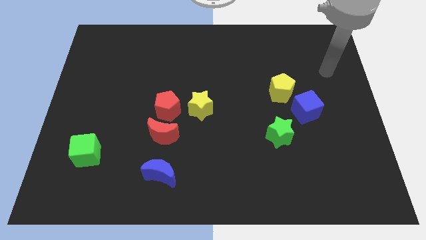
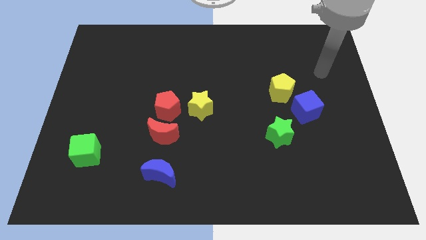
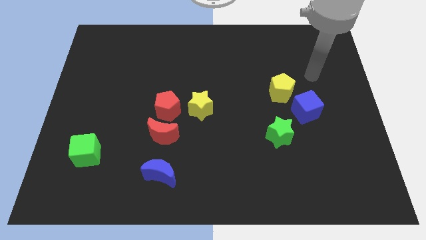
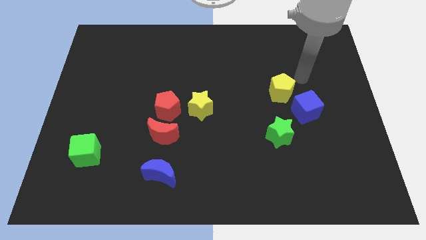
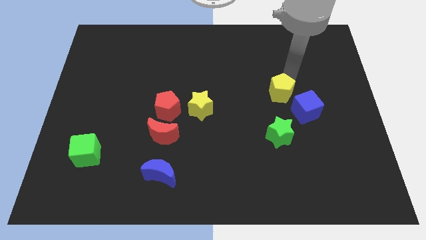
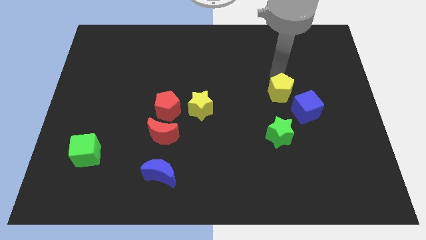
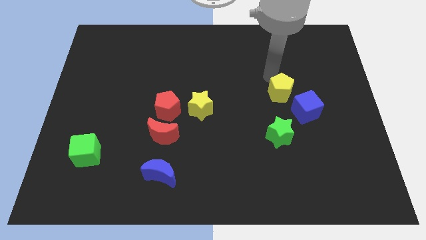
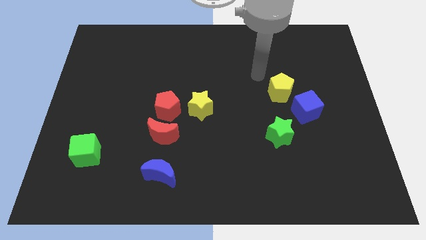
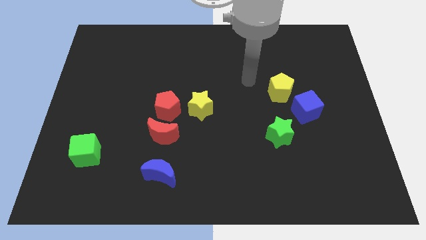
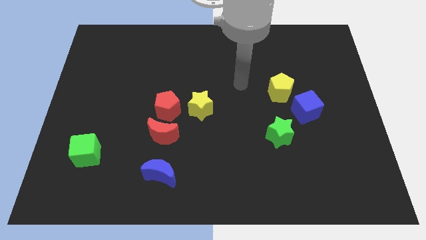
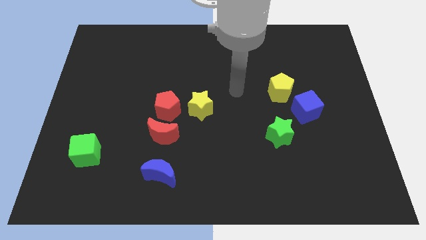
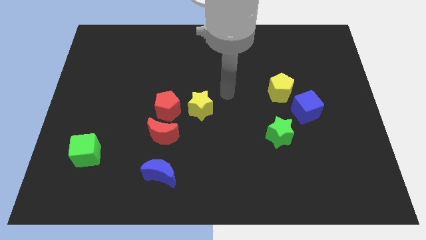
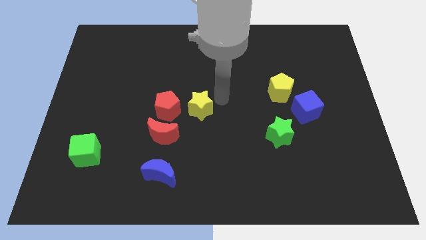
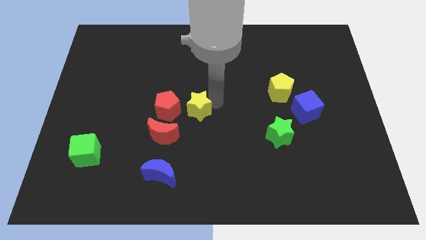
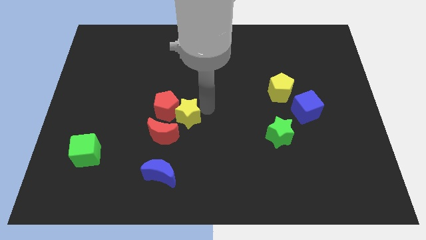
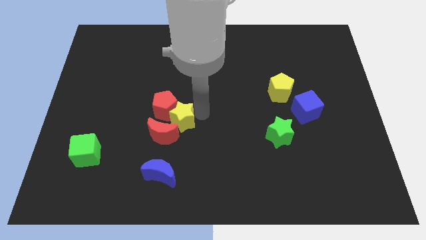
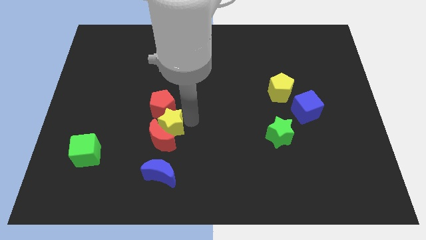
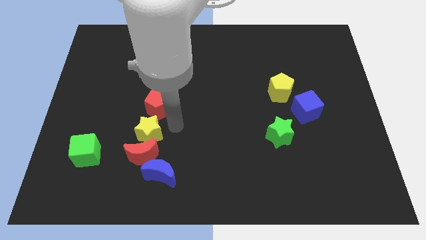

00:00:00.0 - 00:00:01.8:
move the red pentagon away from the red moon and yellow star

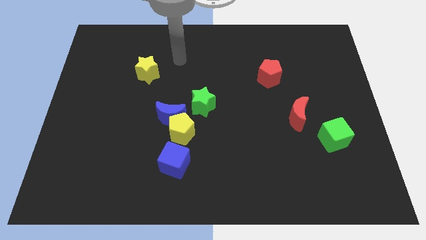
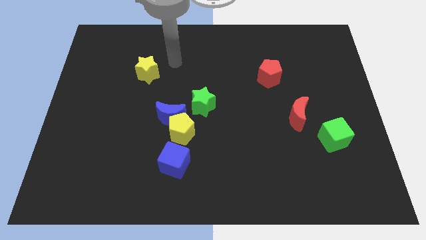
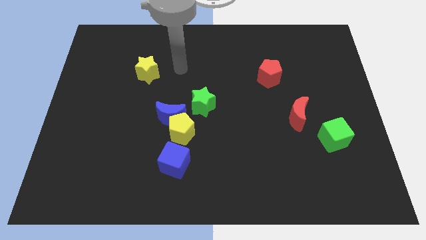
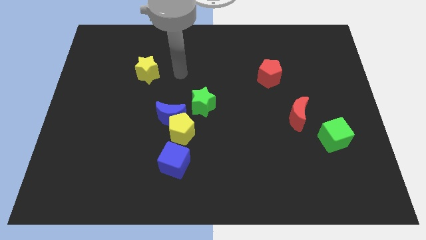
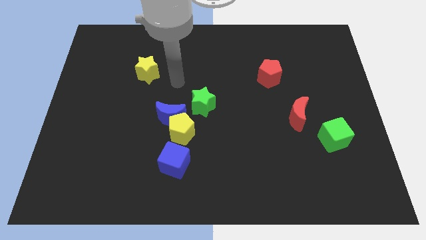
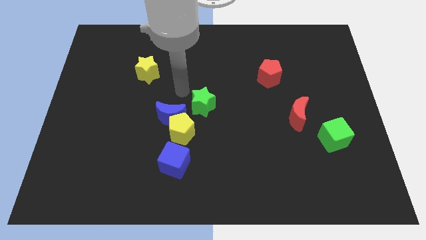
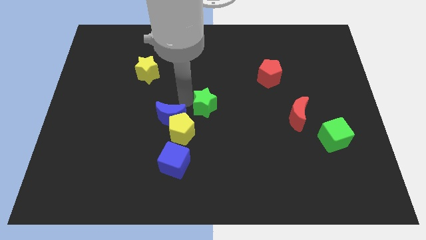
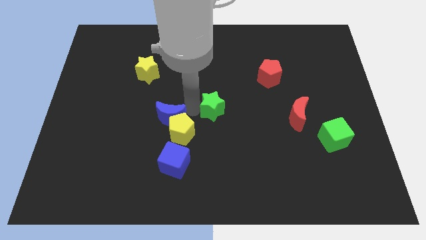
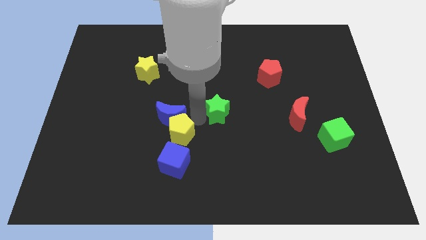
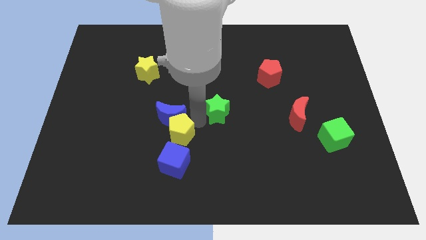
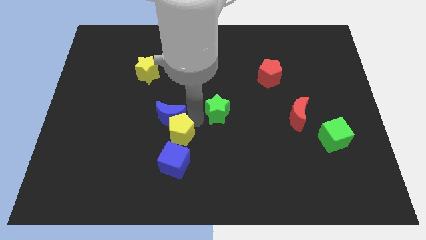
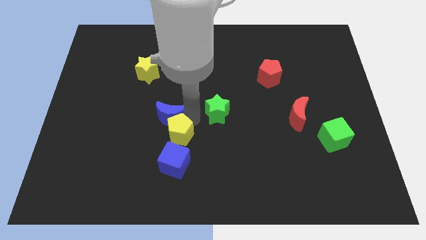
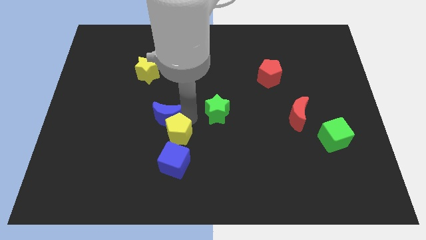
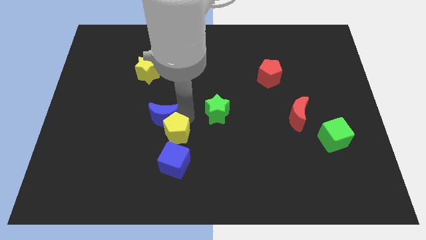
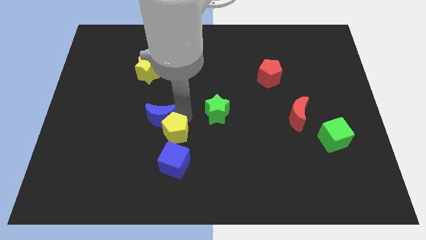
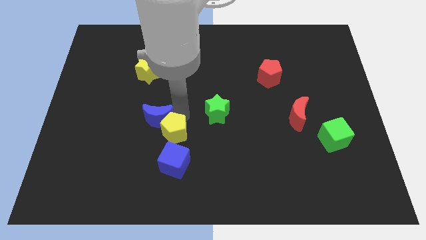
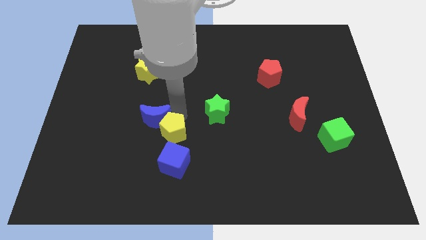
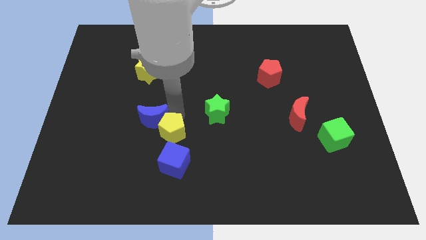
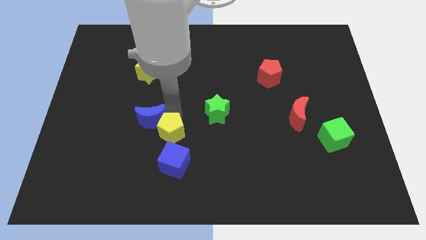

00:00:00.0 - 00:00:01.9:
move the blue moon away from the yellow pentagon and green star

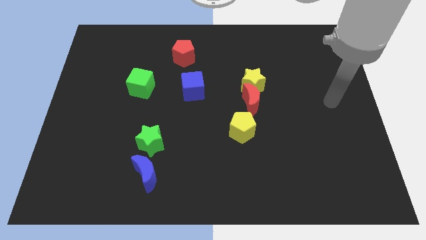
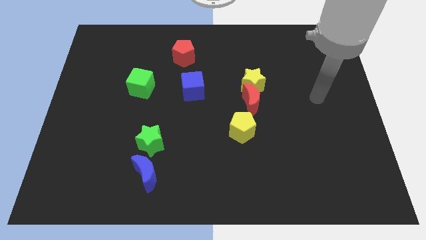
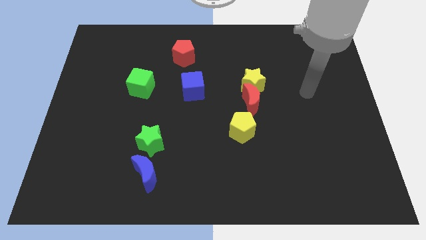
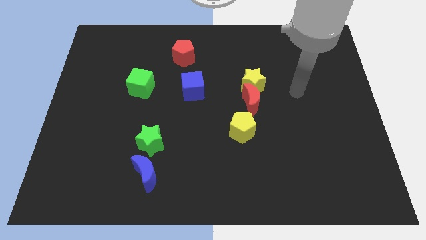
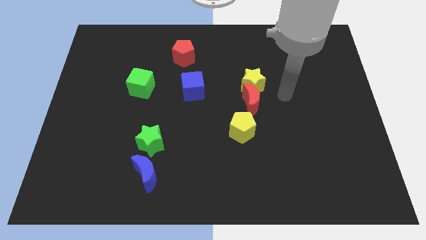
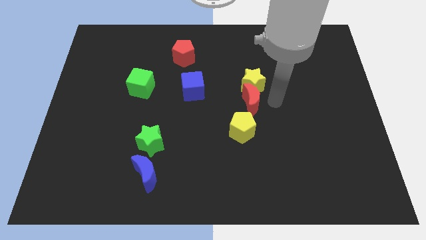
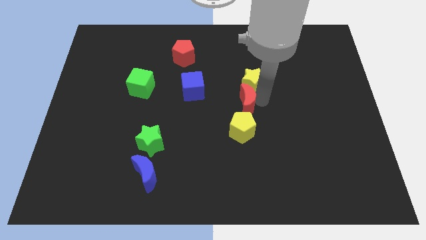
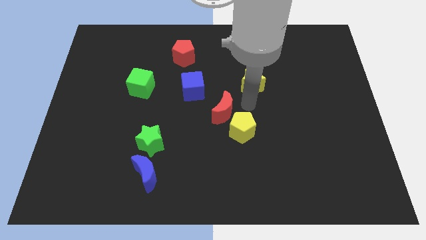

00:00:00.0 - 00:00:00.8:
move the yellow star away from the red moon

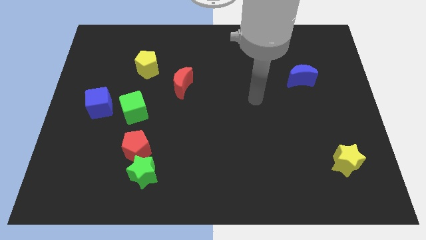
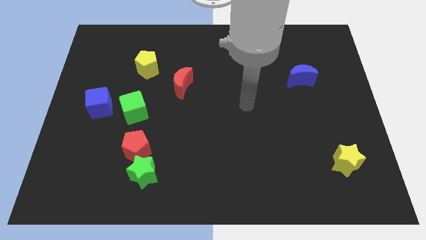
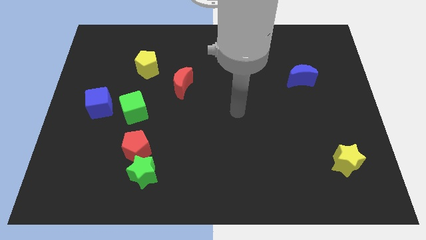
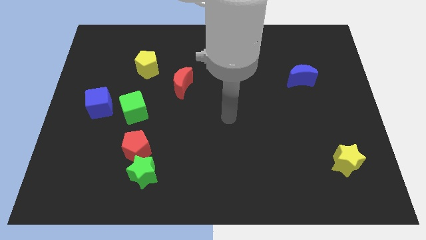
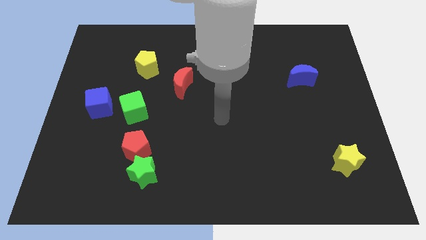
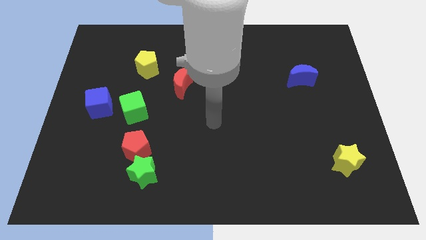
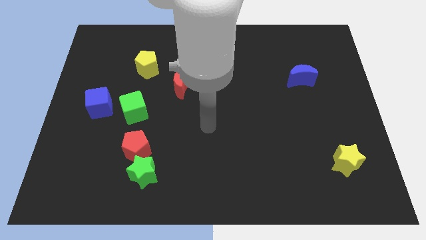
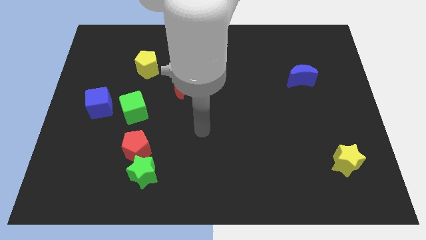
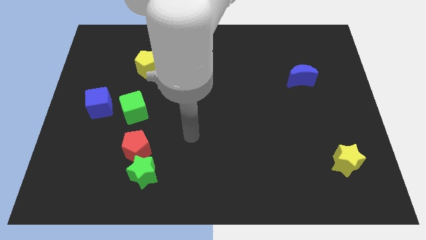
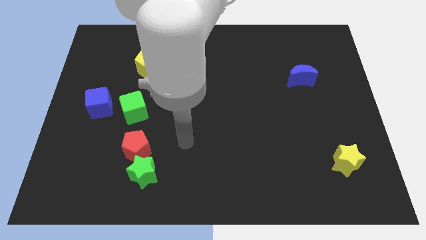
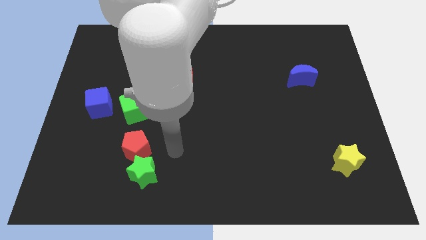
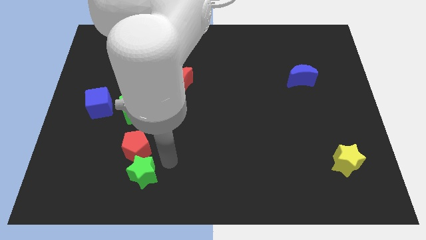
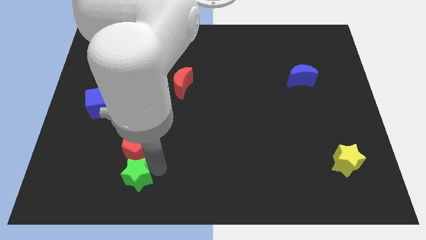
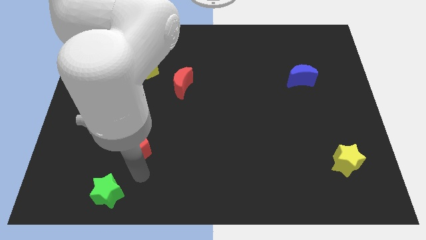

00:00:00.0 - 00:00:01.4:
pull the red pentagon apart from the green star

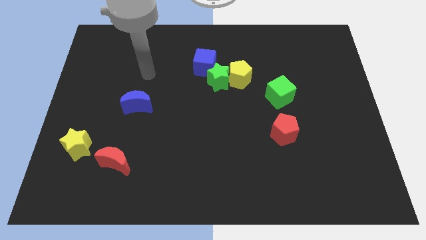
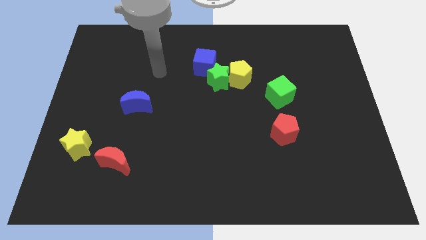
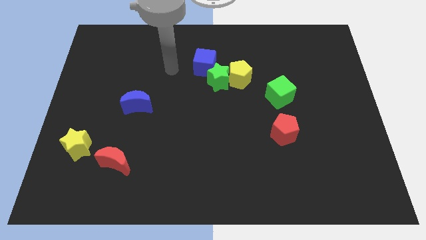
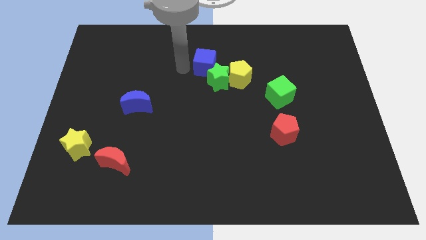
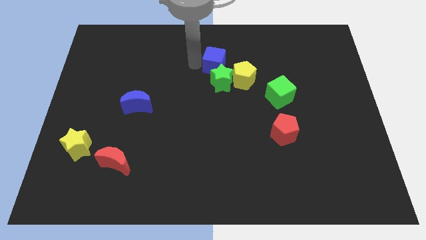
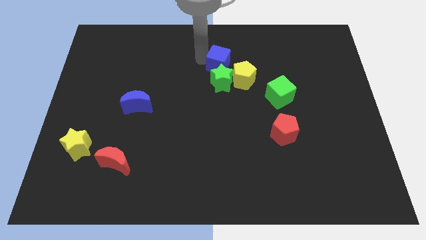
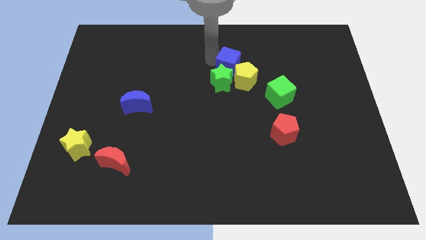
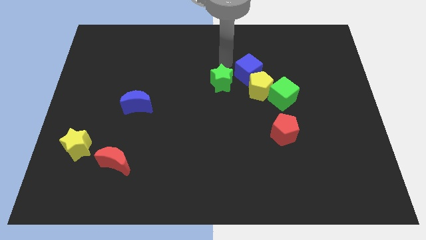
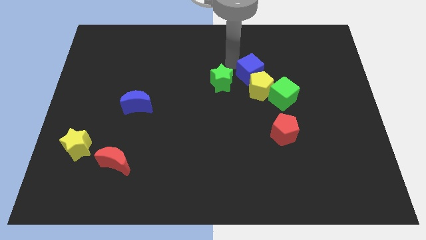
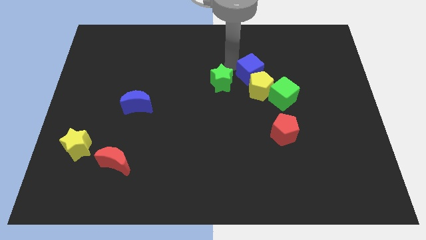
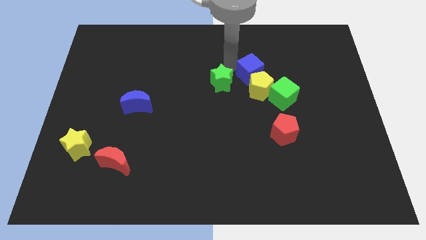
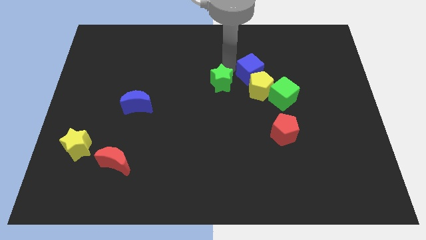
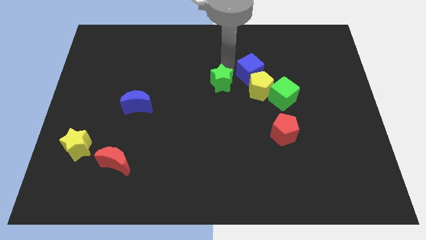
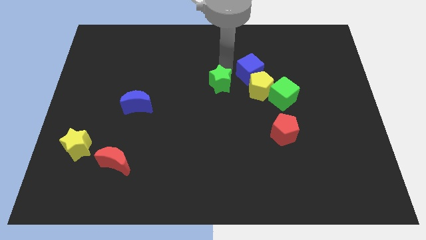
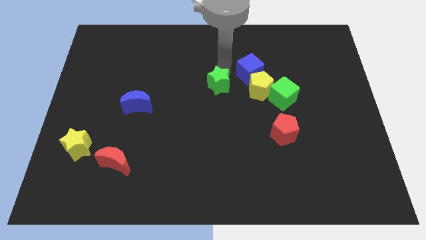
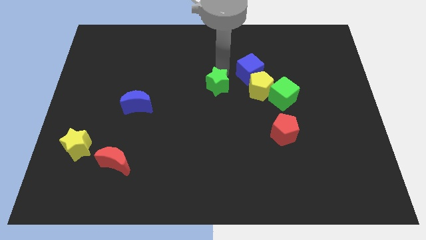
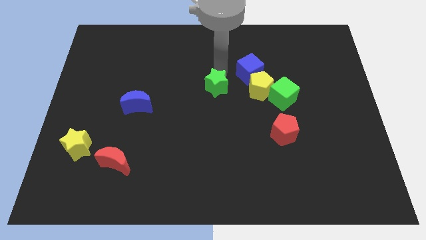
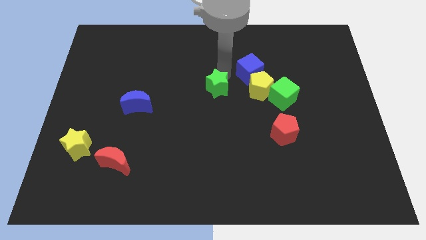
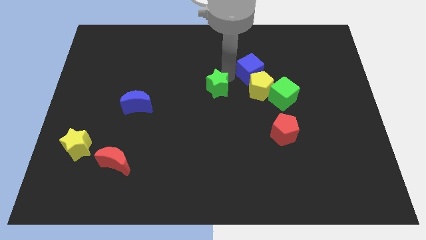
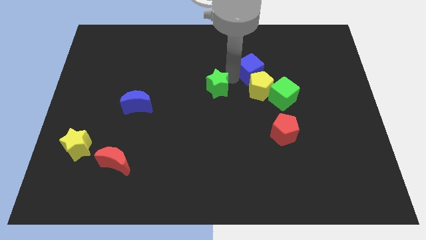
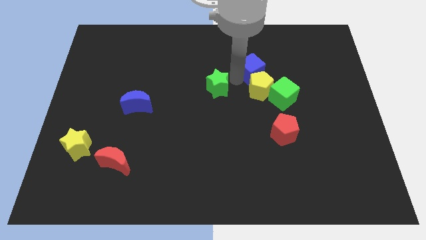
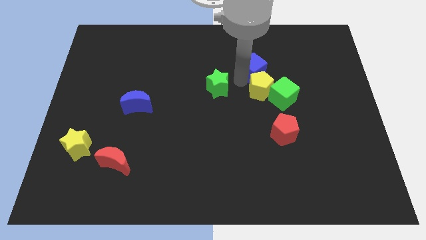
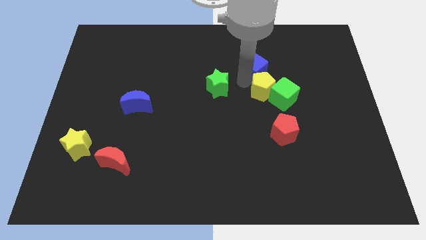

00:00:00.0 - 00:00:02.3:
move the green star away from the yellow pentagon and blue cube

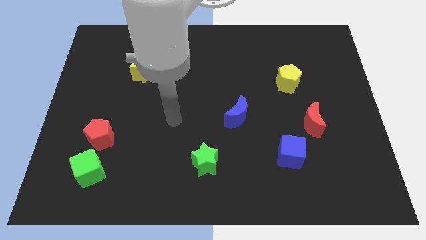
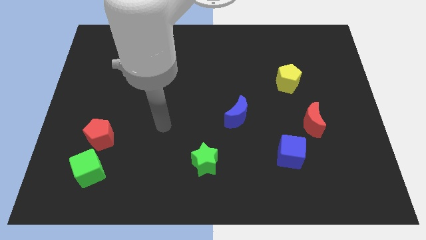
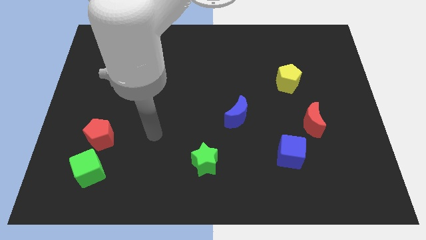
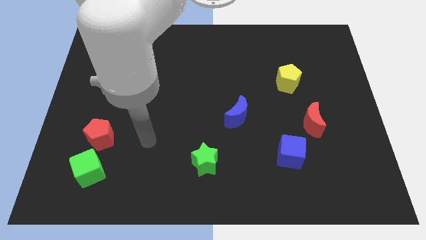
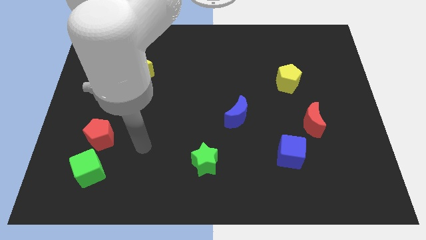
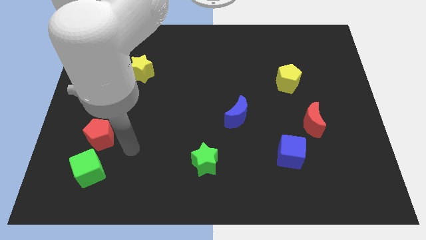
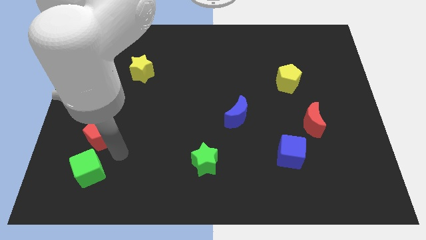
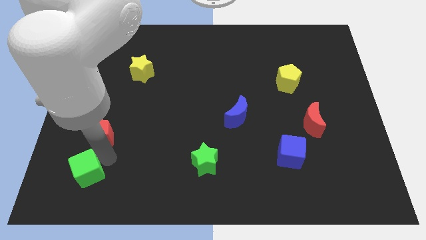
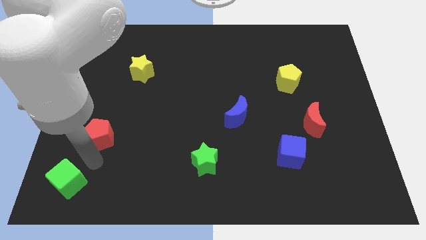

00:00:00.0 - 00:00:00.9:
pull the red pentagon apart from the green cube

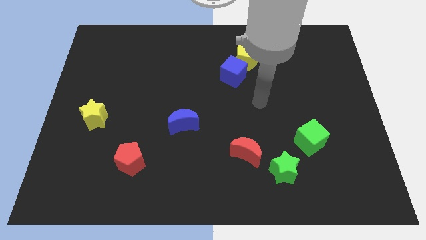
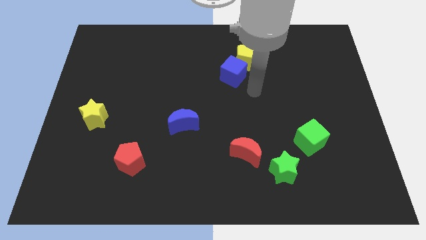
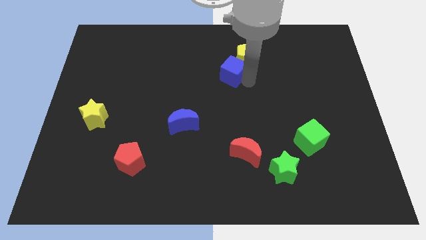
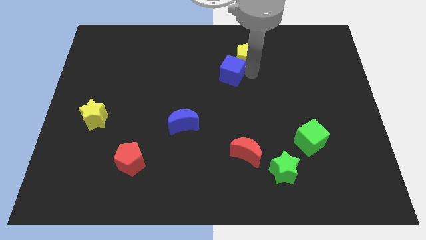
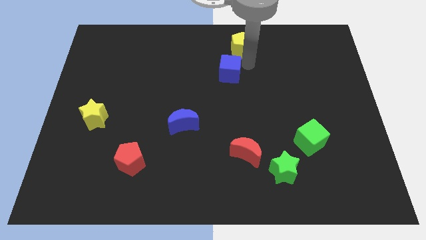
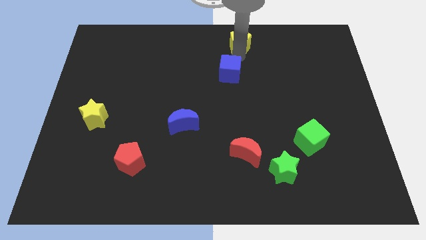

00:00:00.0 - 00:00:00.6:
separate the blue cube from the yellow pentagon
